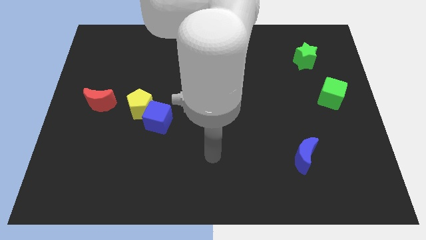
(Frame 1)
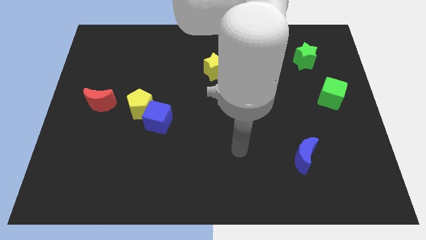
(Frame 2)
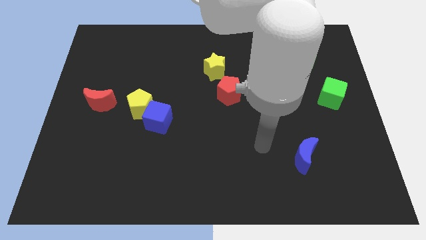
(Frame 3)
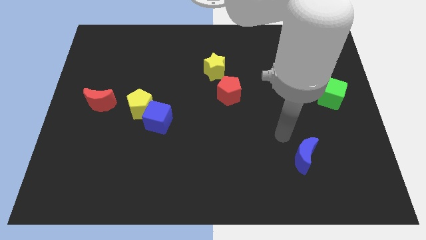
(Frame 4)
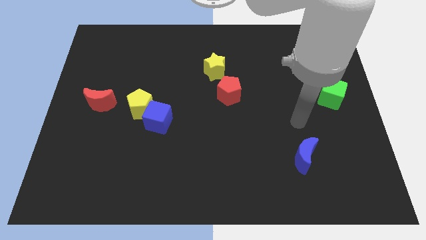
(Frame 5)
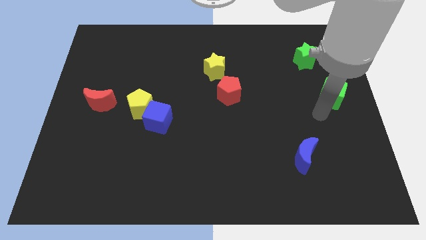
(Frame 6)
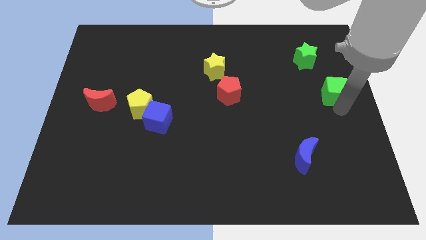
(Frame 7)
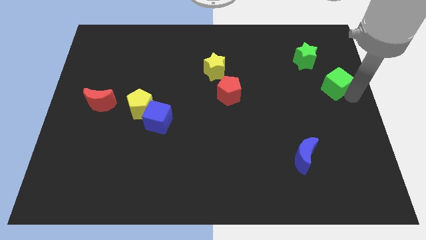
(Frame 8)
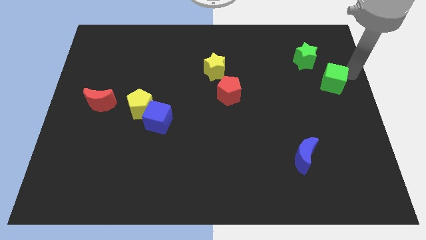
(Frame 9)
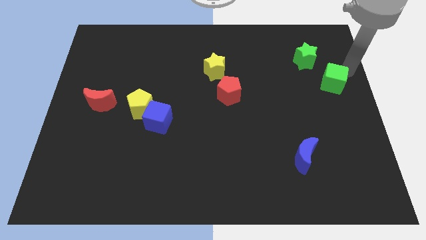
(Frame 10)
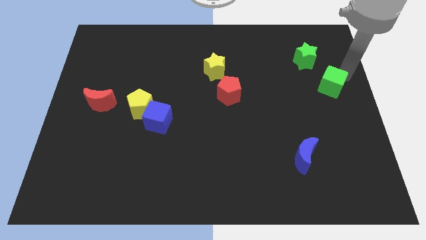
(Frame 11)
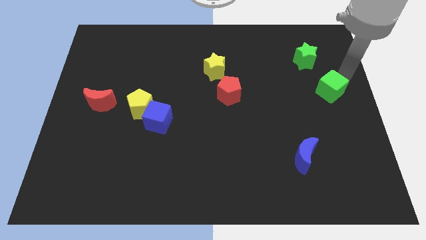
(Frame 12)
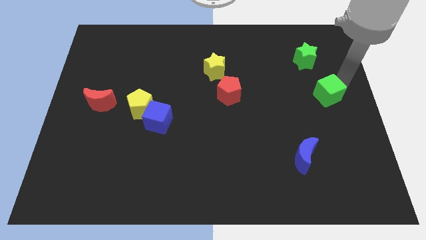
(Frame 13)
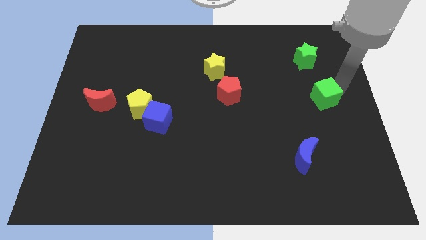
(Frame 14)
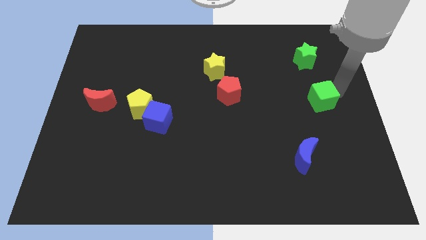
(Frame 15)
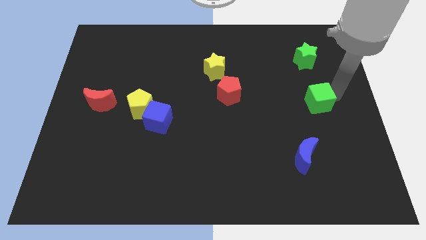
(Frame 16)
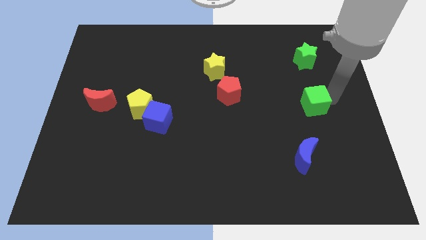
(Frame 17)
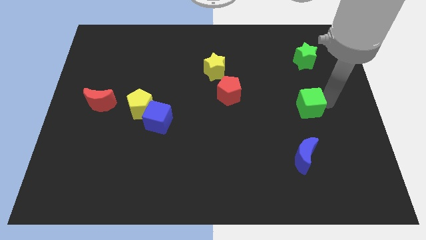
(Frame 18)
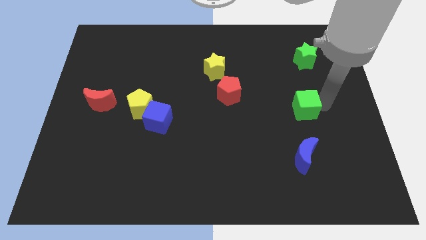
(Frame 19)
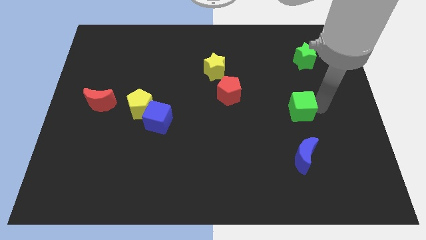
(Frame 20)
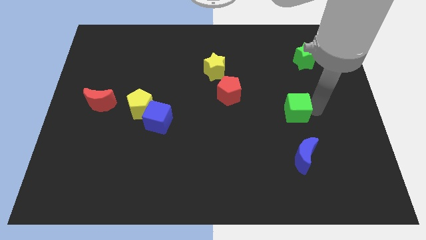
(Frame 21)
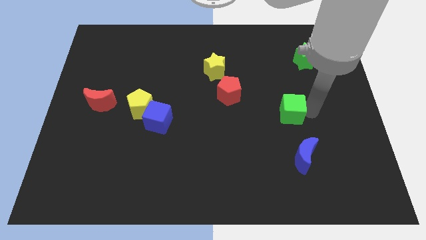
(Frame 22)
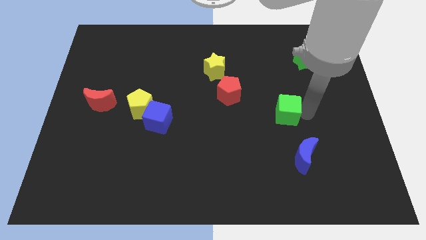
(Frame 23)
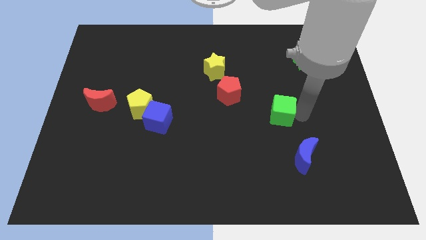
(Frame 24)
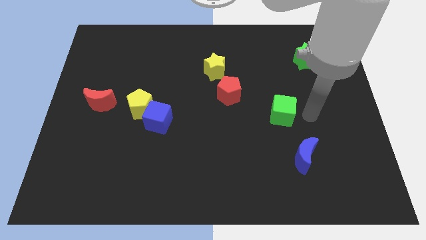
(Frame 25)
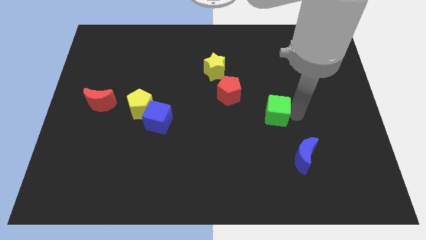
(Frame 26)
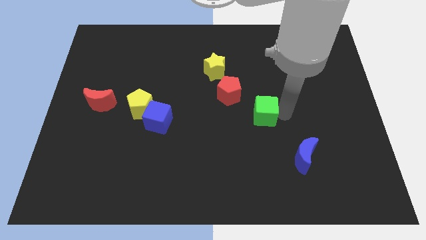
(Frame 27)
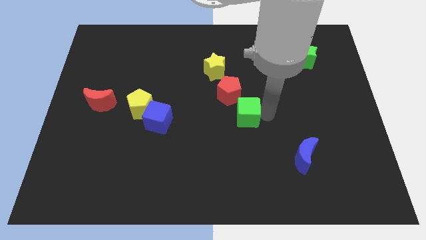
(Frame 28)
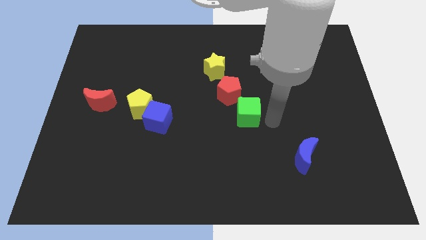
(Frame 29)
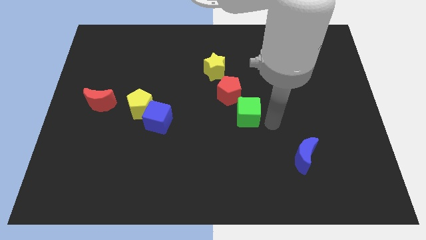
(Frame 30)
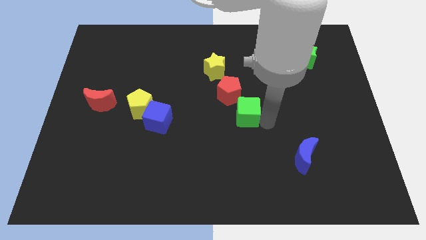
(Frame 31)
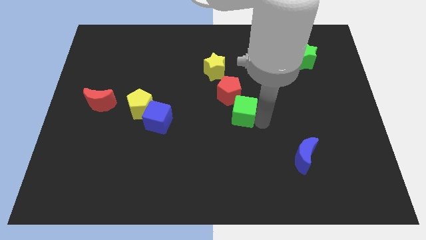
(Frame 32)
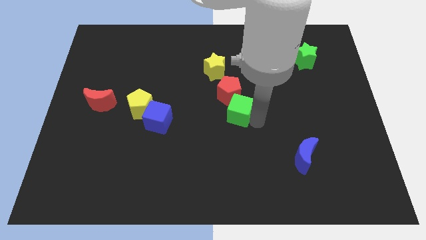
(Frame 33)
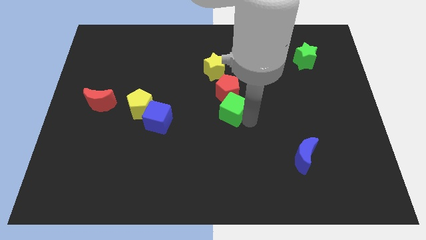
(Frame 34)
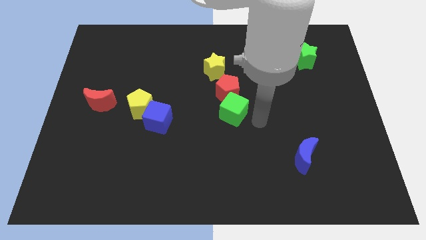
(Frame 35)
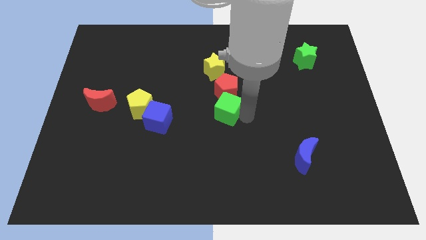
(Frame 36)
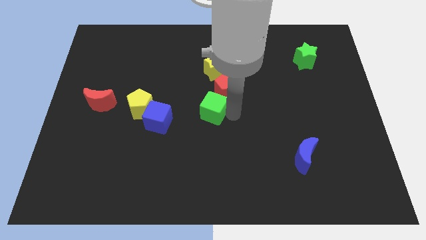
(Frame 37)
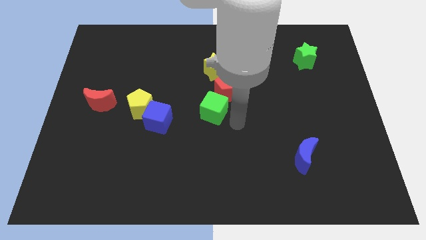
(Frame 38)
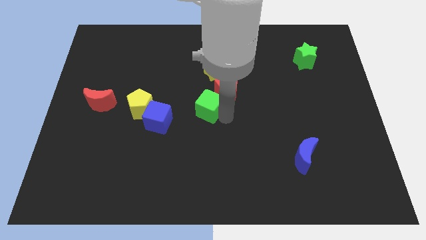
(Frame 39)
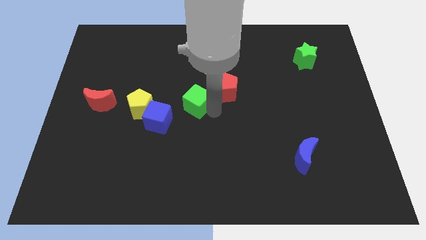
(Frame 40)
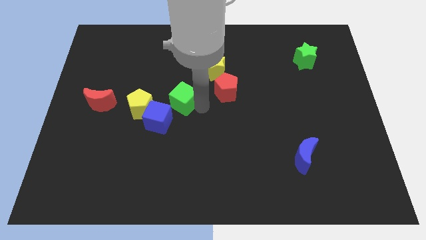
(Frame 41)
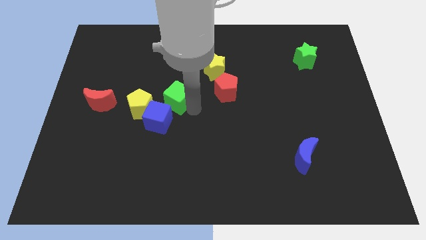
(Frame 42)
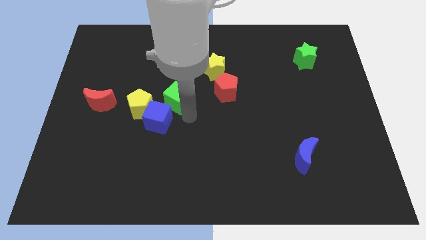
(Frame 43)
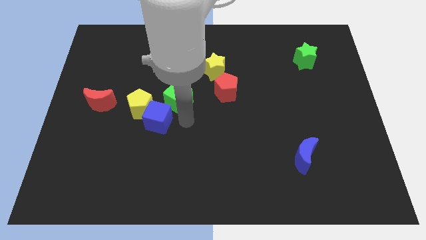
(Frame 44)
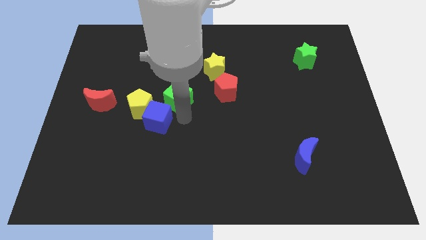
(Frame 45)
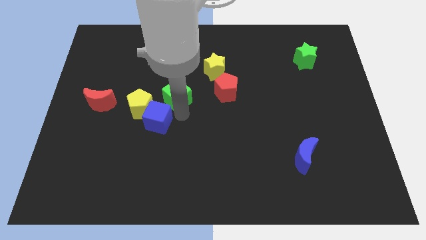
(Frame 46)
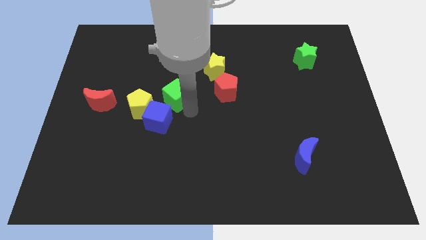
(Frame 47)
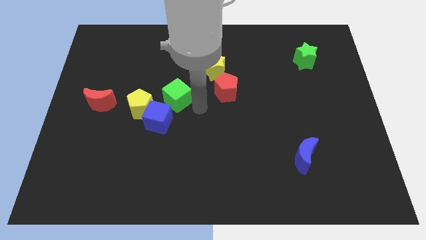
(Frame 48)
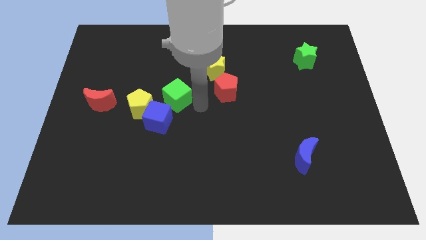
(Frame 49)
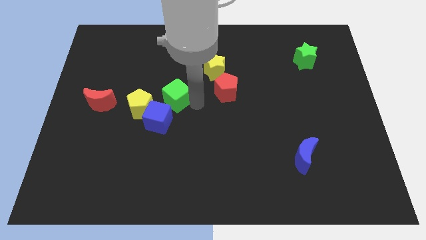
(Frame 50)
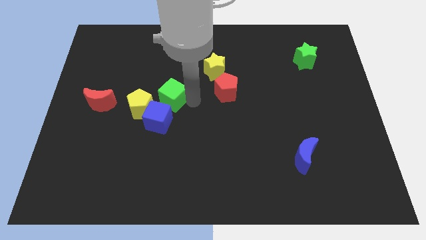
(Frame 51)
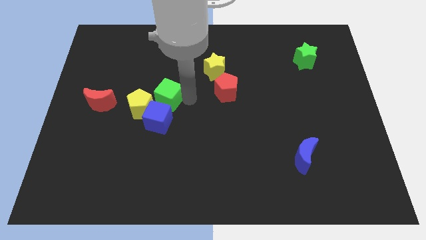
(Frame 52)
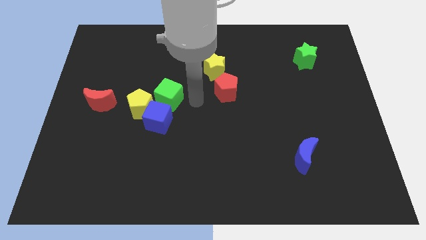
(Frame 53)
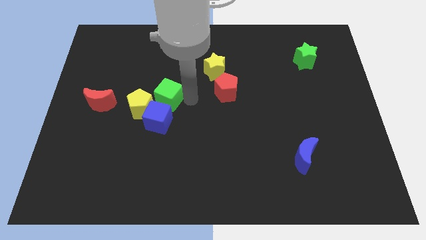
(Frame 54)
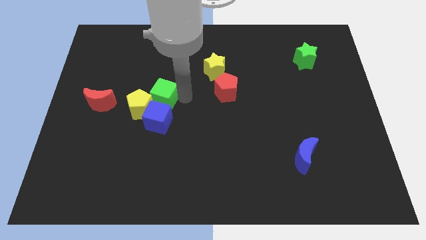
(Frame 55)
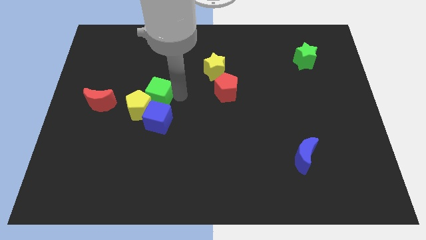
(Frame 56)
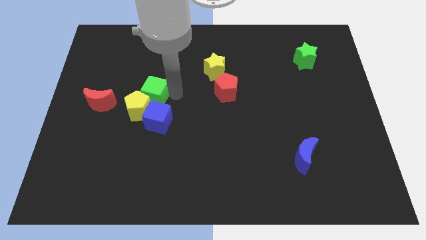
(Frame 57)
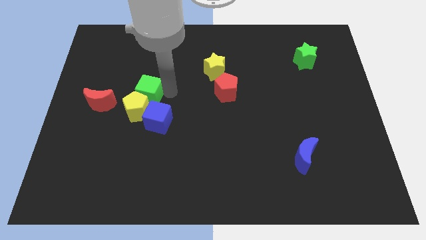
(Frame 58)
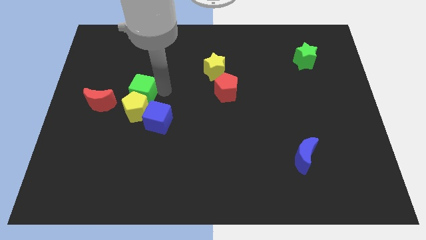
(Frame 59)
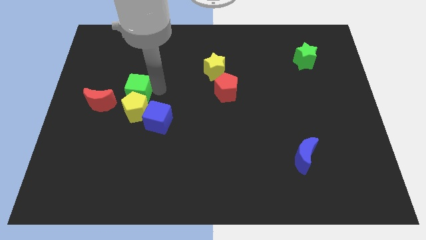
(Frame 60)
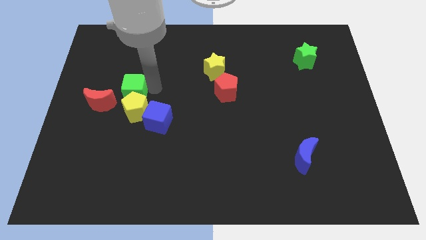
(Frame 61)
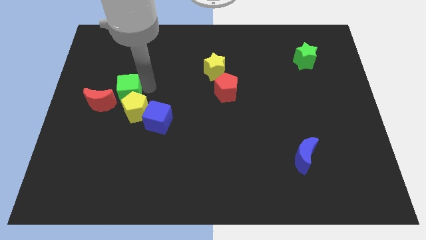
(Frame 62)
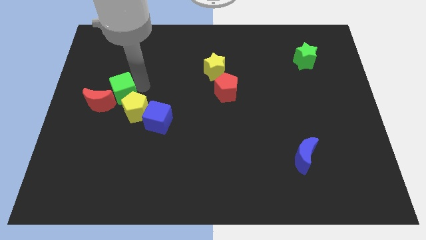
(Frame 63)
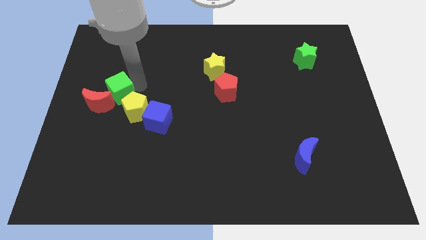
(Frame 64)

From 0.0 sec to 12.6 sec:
move the green cube to the red moon

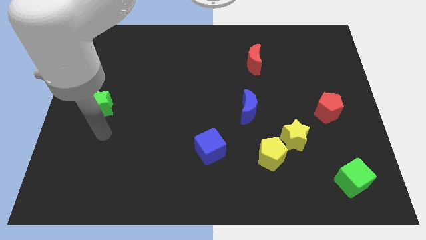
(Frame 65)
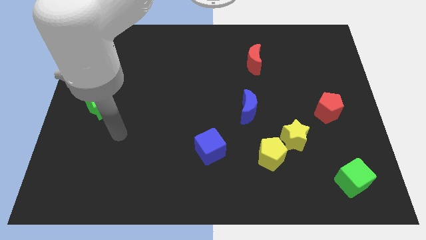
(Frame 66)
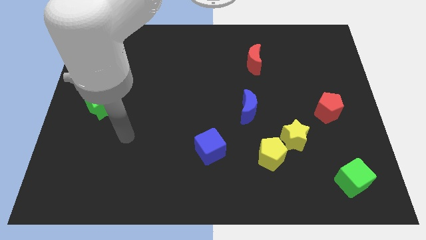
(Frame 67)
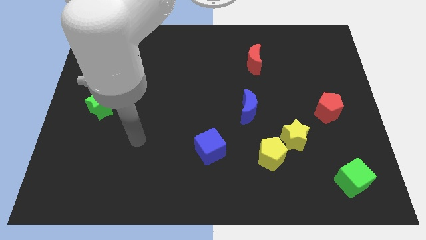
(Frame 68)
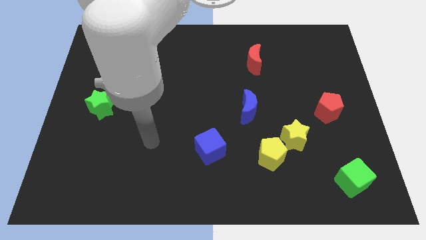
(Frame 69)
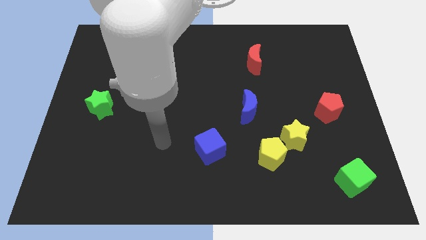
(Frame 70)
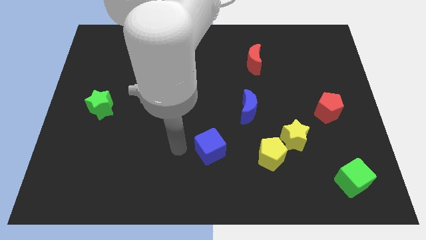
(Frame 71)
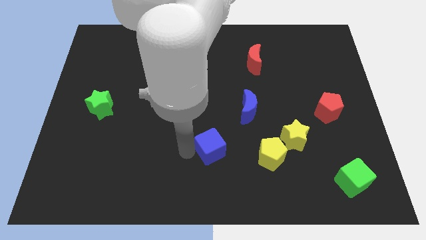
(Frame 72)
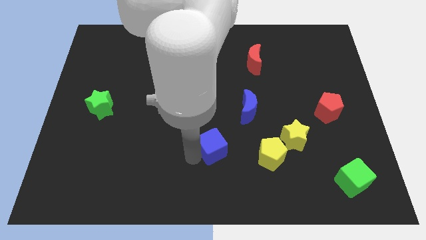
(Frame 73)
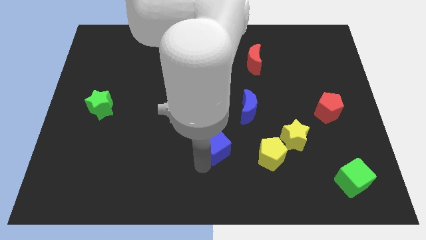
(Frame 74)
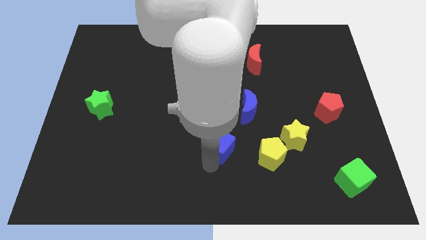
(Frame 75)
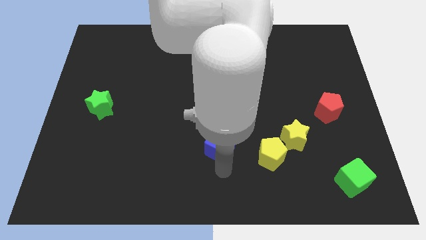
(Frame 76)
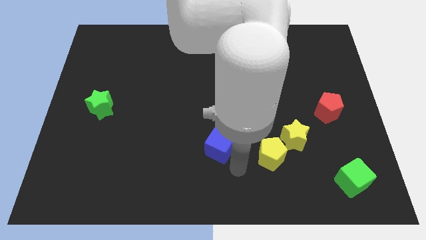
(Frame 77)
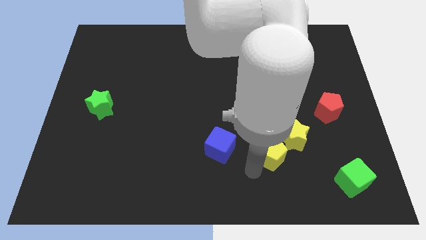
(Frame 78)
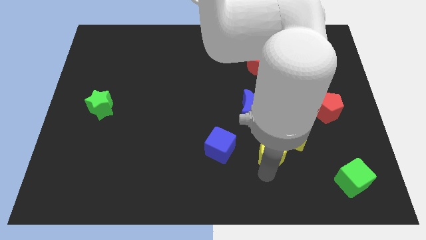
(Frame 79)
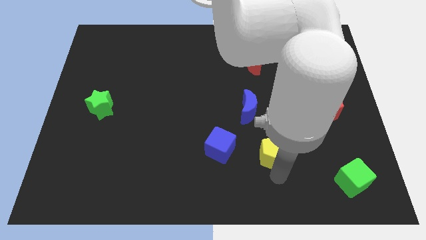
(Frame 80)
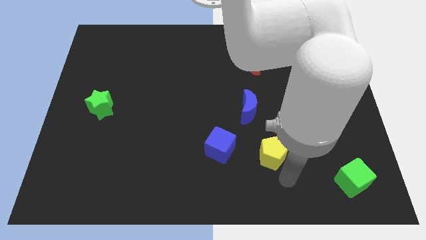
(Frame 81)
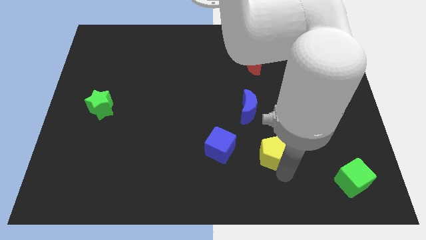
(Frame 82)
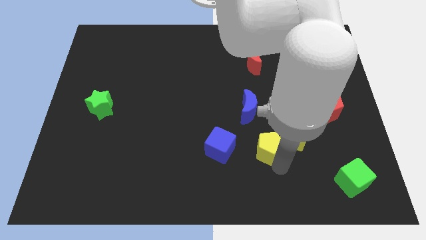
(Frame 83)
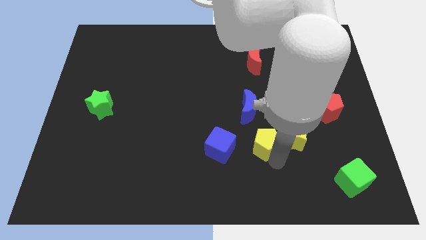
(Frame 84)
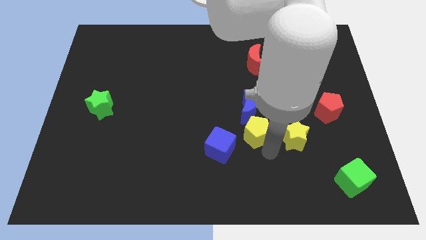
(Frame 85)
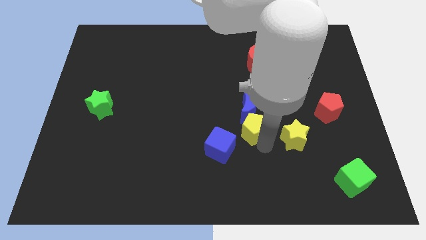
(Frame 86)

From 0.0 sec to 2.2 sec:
slide the yellow pentagon to the blue moon
